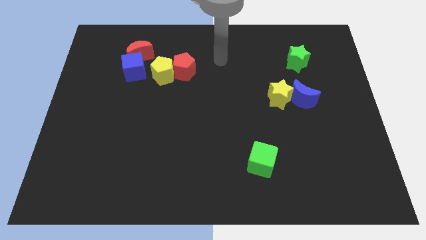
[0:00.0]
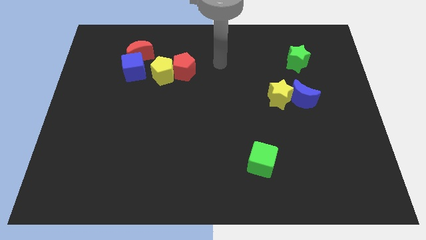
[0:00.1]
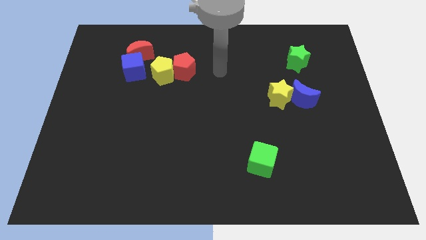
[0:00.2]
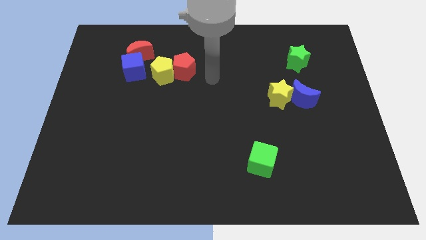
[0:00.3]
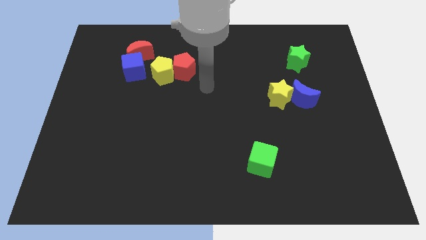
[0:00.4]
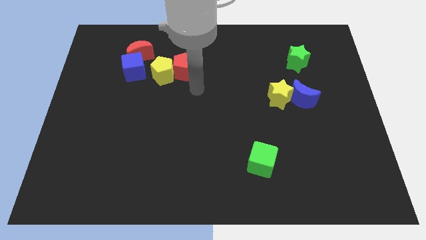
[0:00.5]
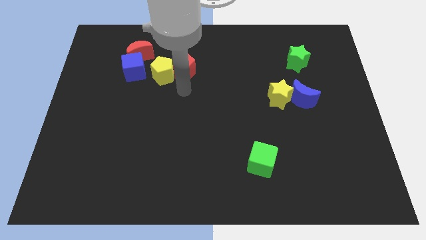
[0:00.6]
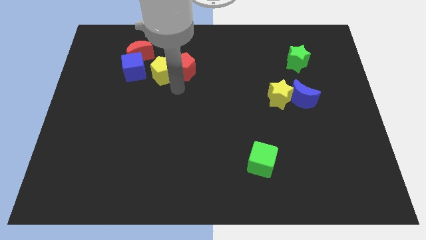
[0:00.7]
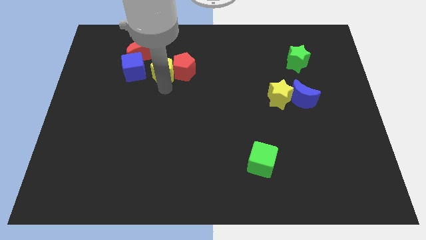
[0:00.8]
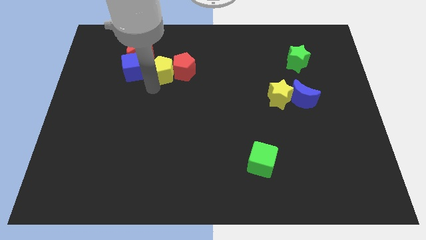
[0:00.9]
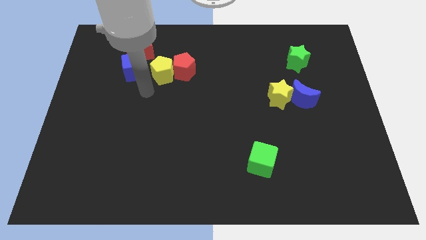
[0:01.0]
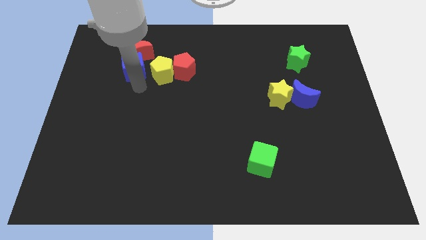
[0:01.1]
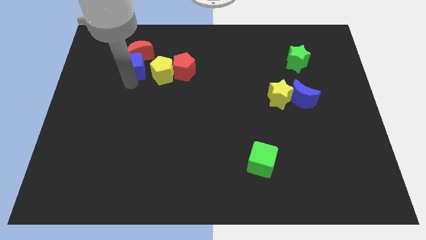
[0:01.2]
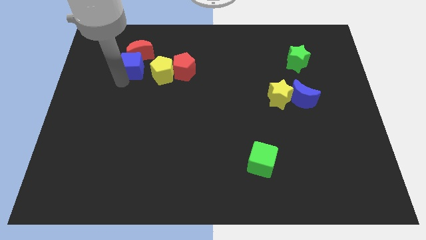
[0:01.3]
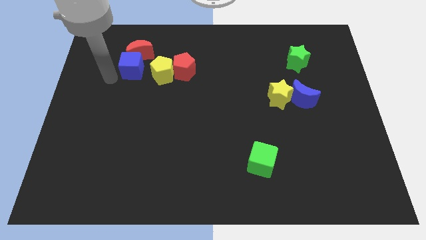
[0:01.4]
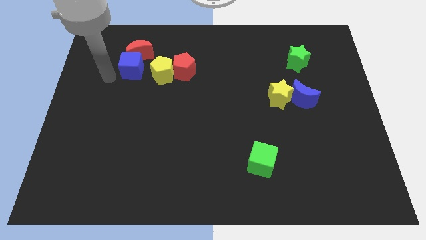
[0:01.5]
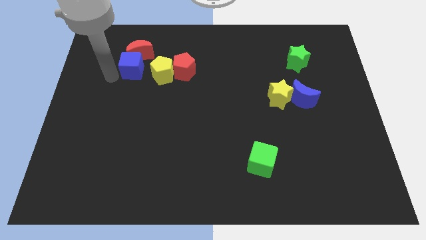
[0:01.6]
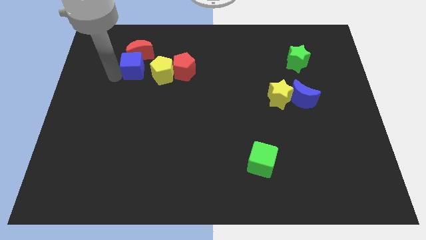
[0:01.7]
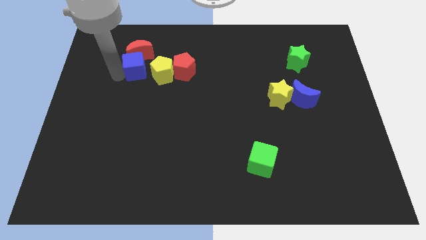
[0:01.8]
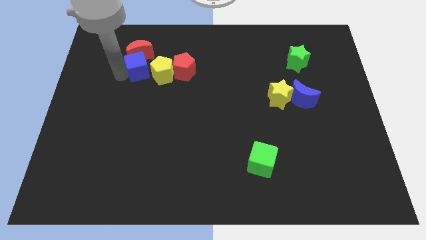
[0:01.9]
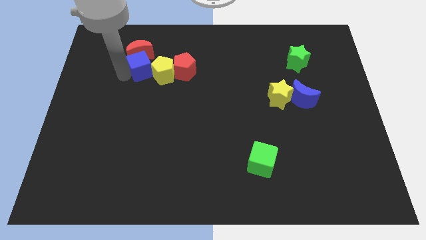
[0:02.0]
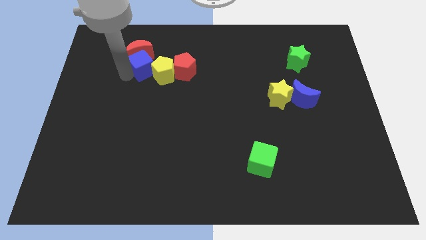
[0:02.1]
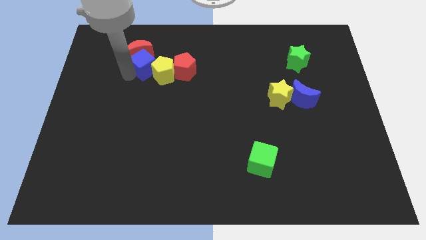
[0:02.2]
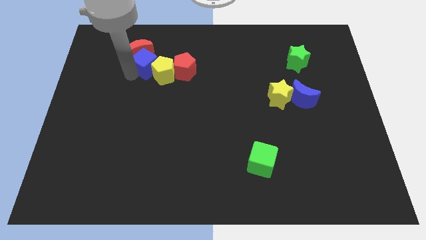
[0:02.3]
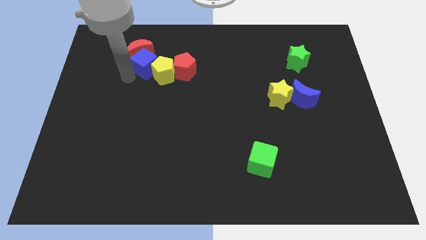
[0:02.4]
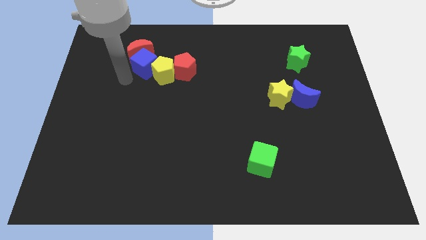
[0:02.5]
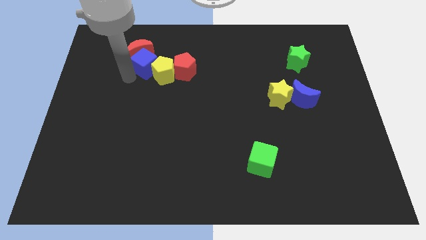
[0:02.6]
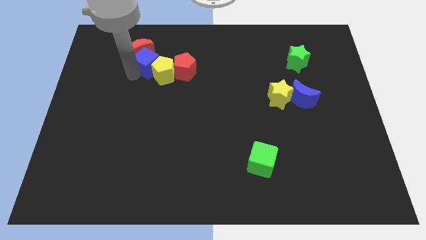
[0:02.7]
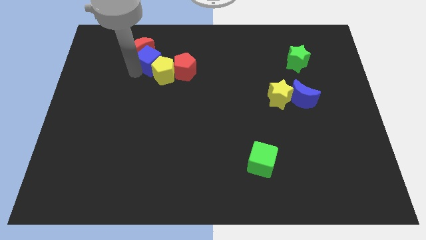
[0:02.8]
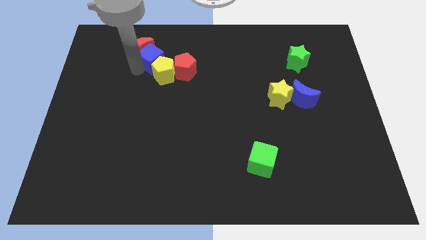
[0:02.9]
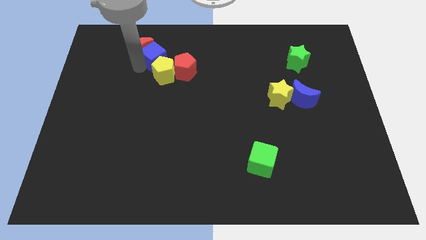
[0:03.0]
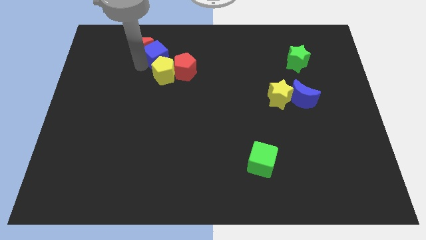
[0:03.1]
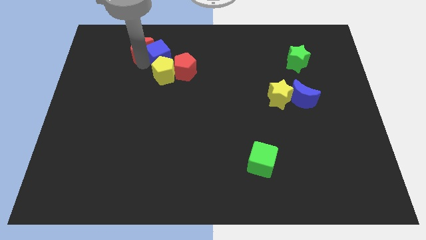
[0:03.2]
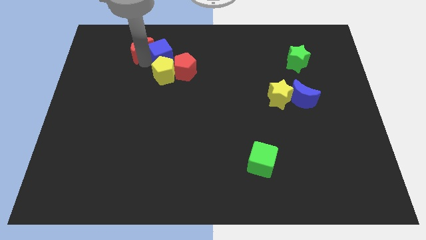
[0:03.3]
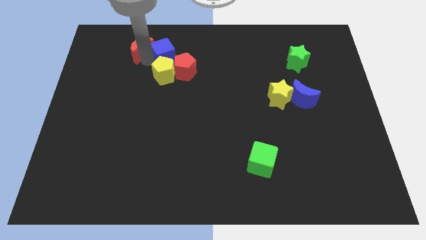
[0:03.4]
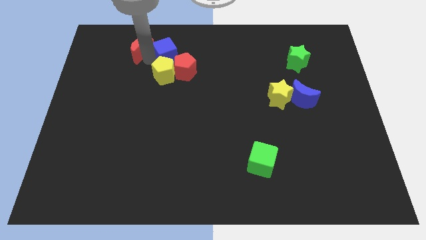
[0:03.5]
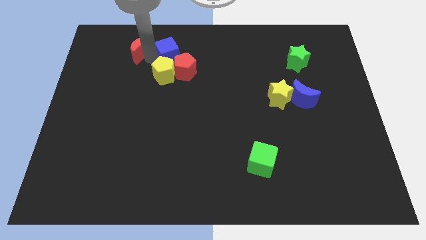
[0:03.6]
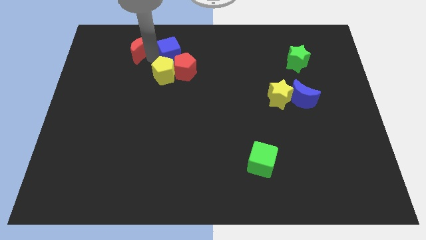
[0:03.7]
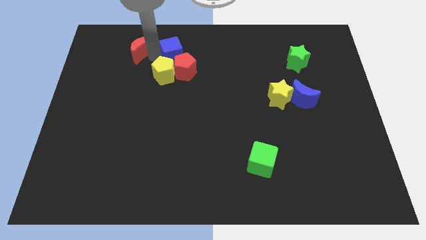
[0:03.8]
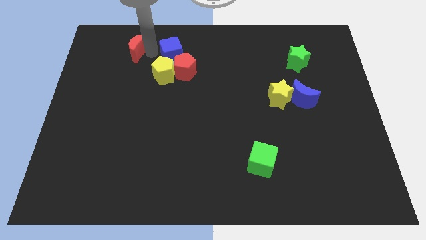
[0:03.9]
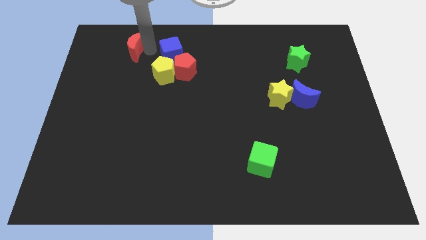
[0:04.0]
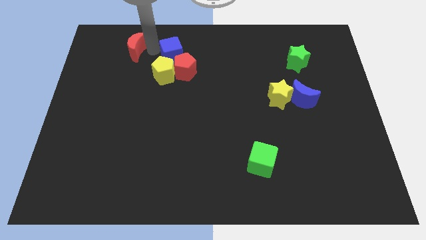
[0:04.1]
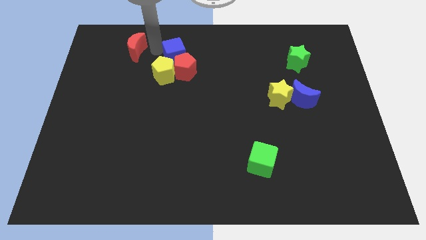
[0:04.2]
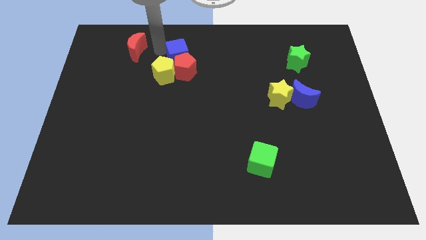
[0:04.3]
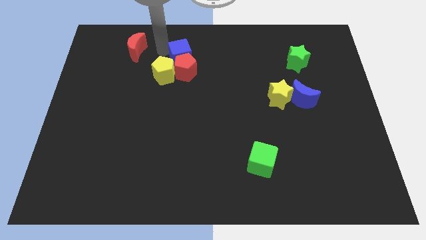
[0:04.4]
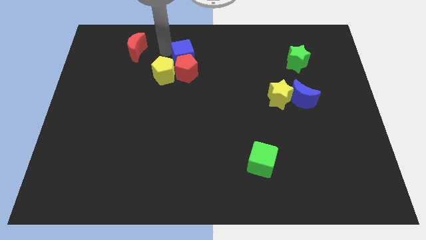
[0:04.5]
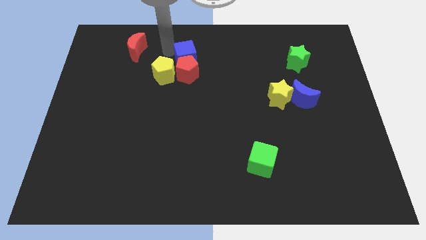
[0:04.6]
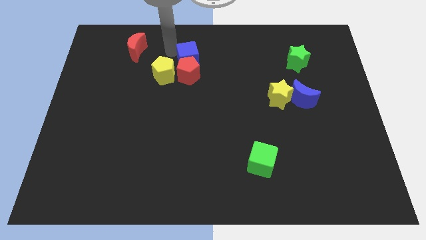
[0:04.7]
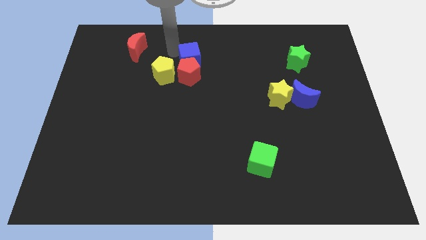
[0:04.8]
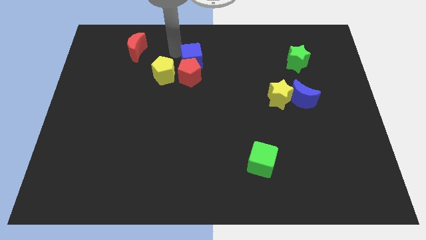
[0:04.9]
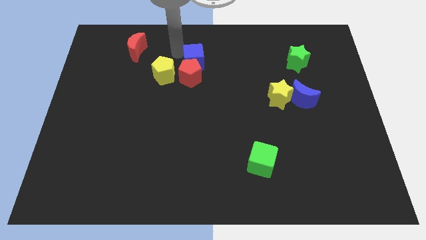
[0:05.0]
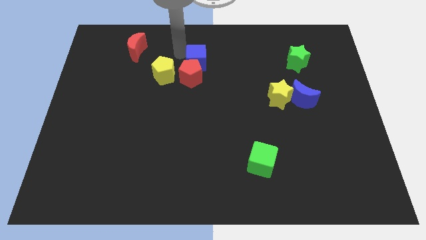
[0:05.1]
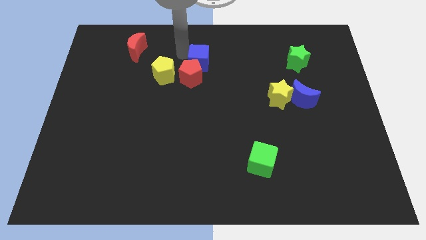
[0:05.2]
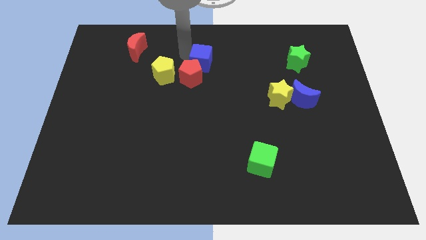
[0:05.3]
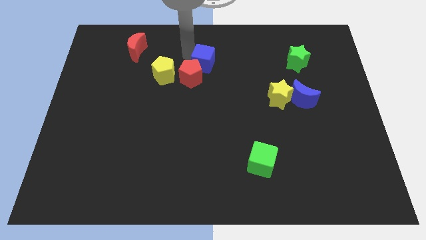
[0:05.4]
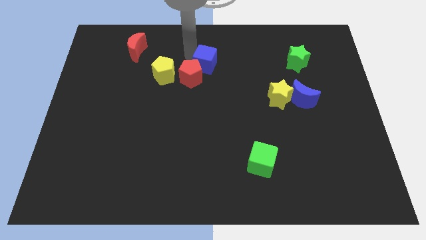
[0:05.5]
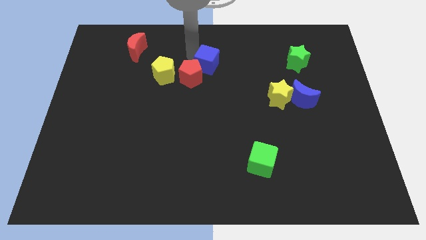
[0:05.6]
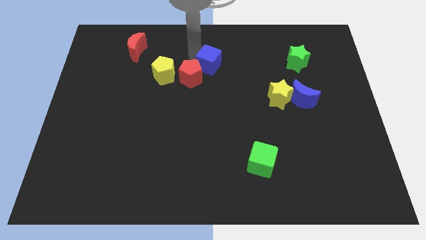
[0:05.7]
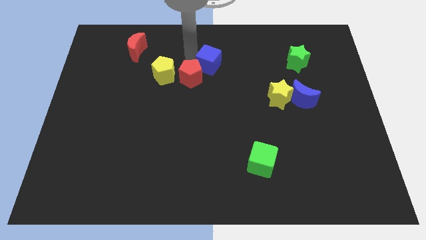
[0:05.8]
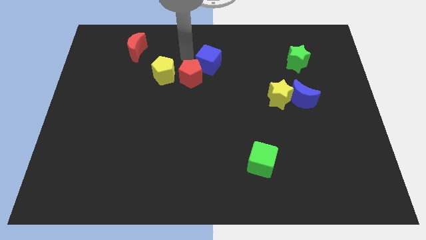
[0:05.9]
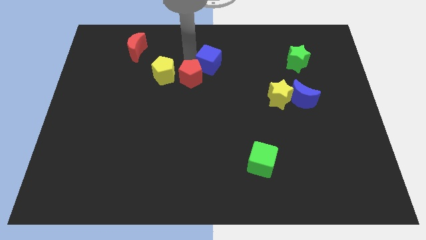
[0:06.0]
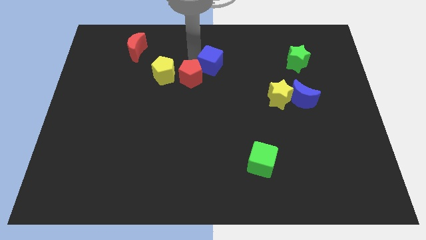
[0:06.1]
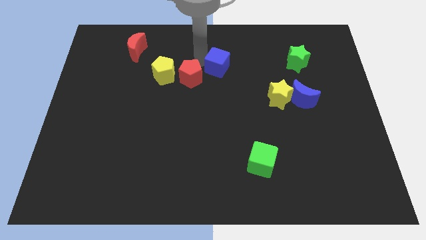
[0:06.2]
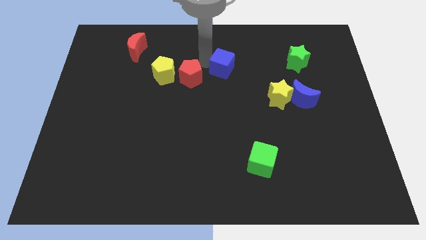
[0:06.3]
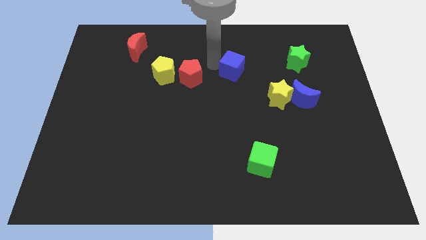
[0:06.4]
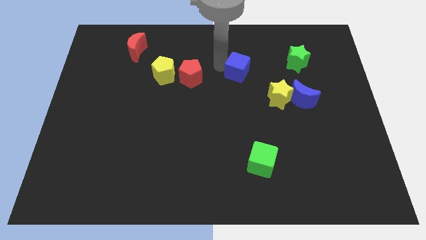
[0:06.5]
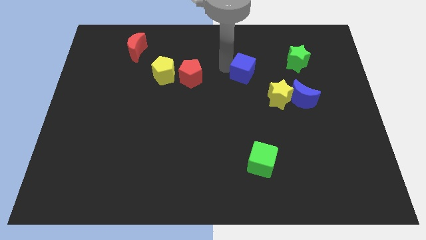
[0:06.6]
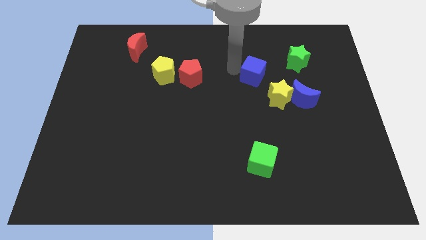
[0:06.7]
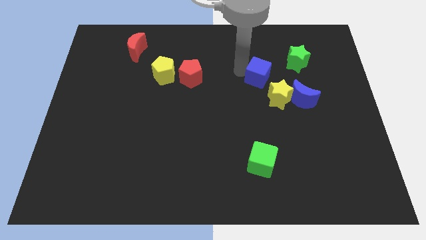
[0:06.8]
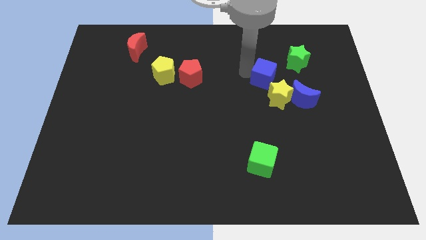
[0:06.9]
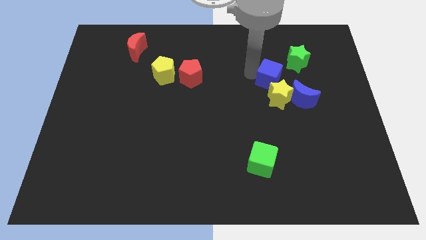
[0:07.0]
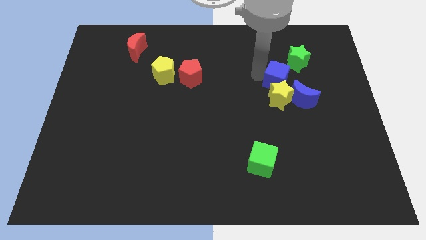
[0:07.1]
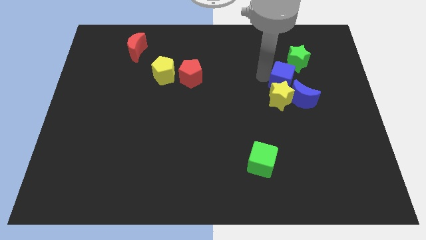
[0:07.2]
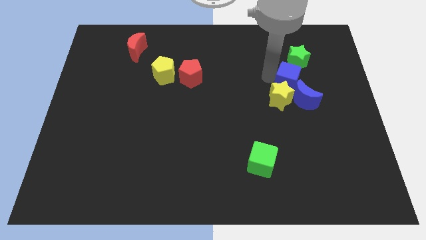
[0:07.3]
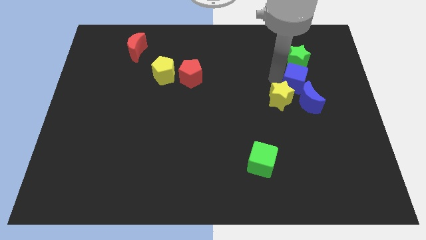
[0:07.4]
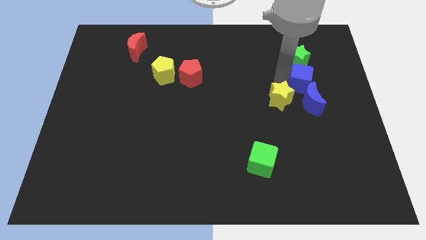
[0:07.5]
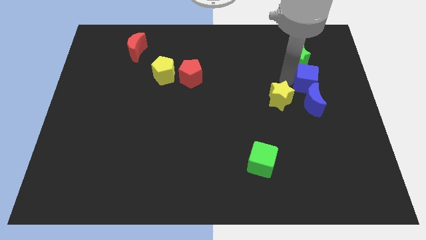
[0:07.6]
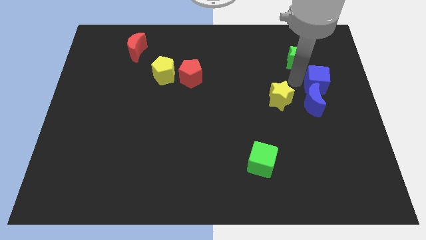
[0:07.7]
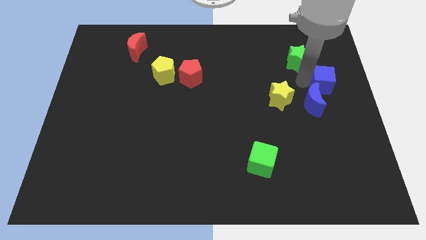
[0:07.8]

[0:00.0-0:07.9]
push the blue cube to the right side of the board
